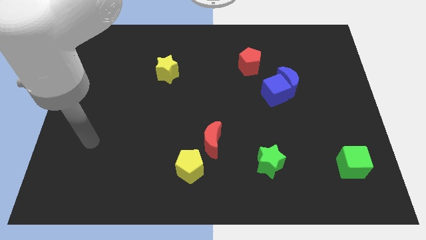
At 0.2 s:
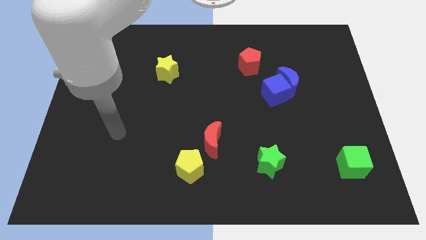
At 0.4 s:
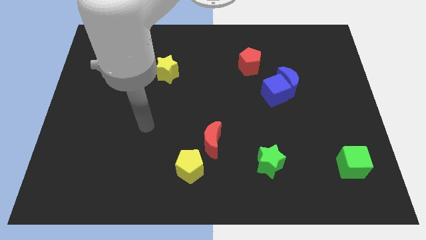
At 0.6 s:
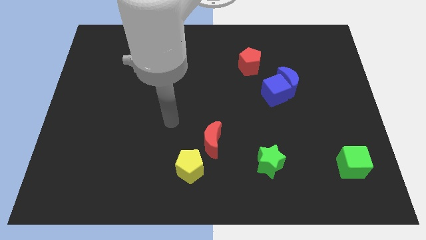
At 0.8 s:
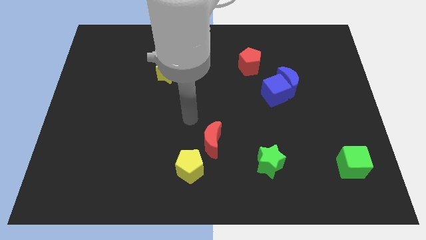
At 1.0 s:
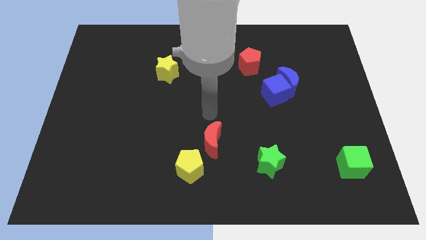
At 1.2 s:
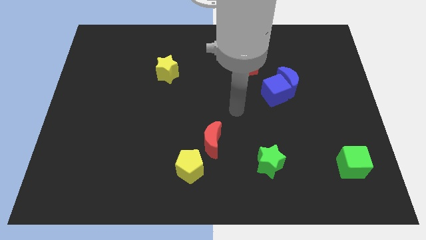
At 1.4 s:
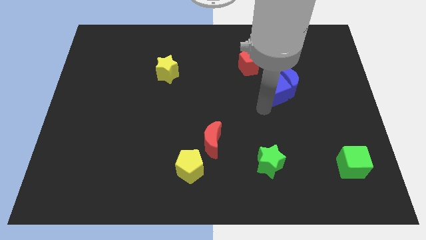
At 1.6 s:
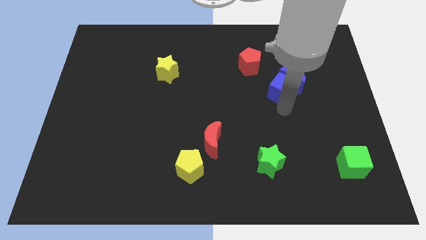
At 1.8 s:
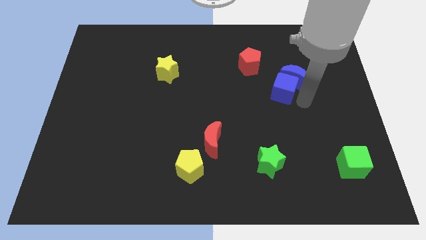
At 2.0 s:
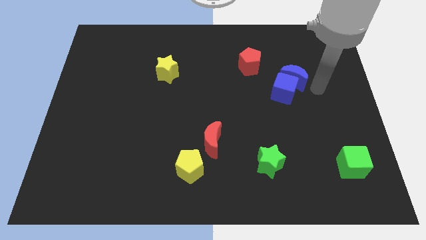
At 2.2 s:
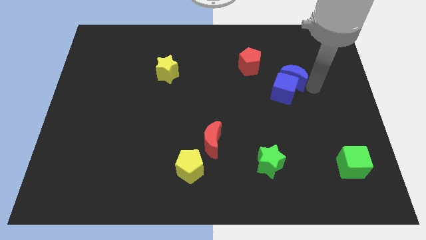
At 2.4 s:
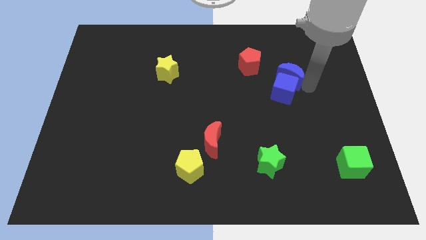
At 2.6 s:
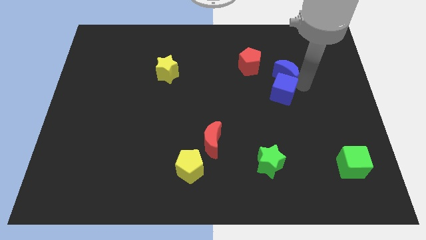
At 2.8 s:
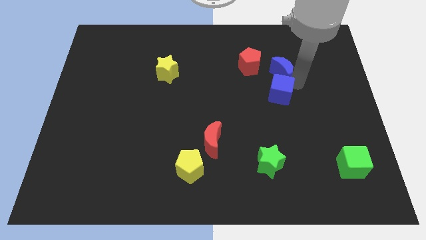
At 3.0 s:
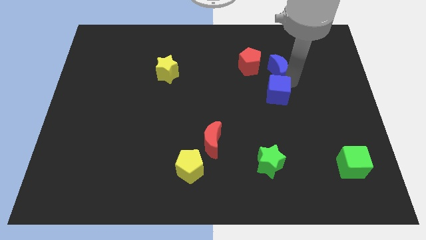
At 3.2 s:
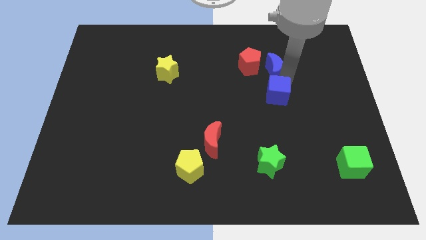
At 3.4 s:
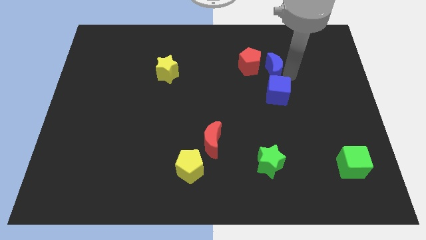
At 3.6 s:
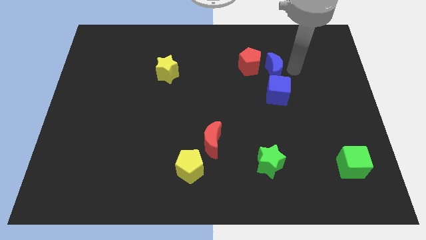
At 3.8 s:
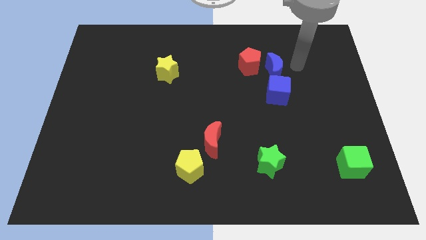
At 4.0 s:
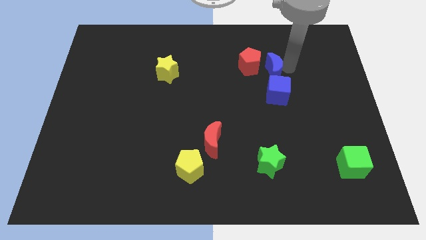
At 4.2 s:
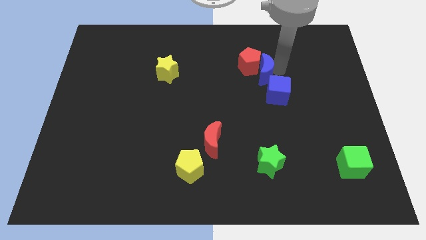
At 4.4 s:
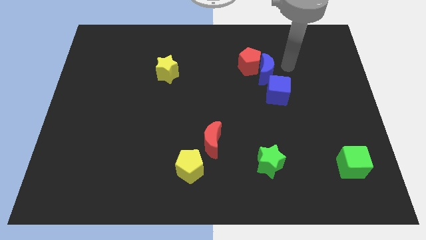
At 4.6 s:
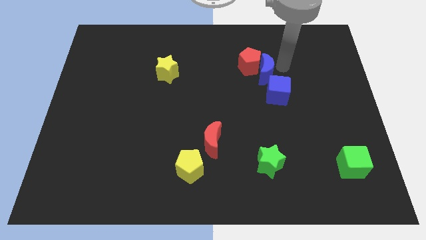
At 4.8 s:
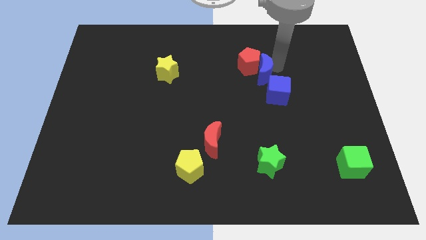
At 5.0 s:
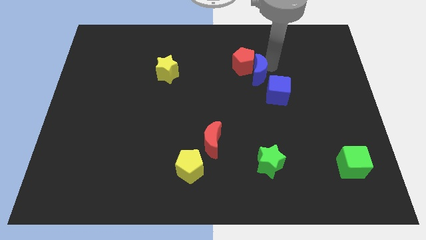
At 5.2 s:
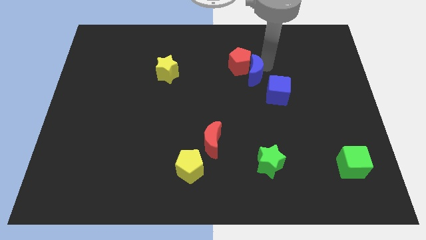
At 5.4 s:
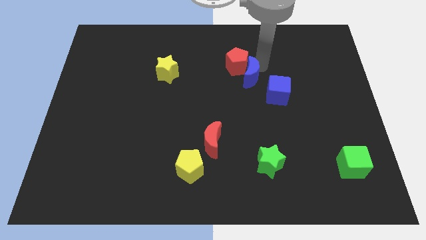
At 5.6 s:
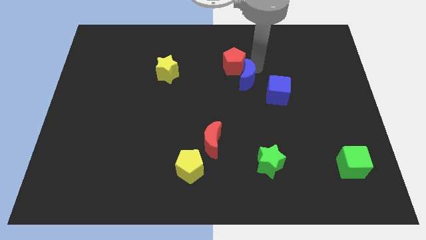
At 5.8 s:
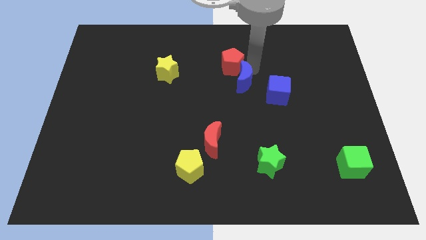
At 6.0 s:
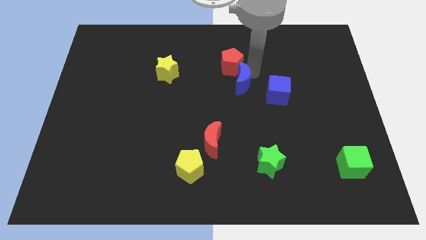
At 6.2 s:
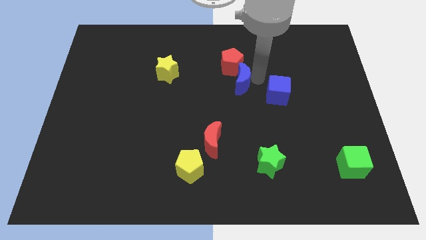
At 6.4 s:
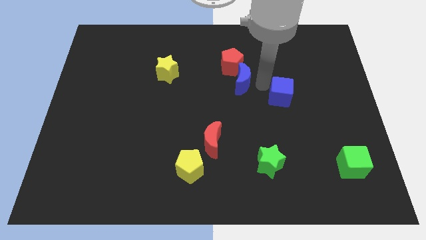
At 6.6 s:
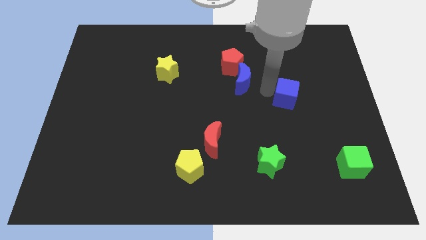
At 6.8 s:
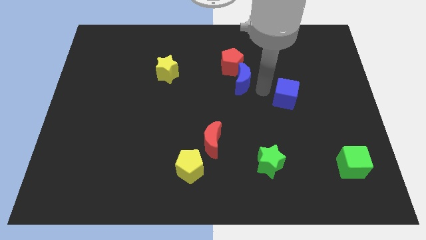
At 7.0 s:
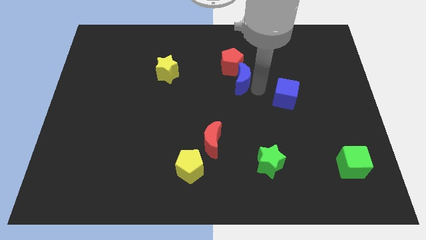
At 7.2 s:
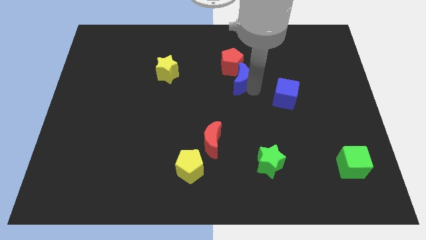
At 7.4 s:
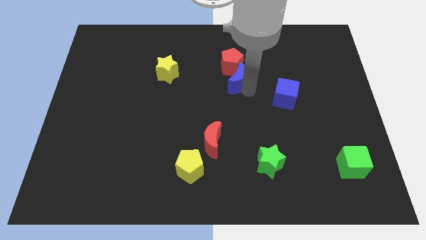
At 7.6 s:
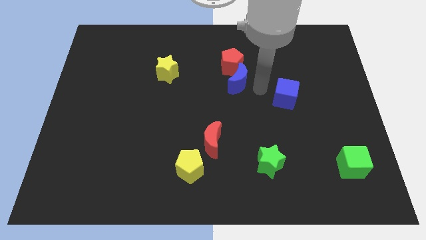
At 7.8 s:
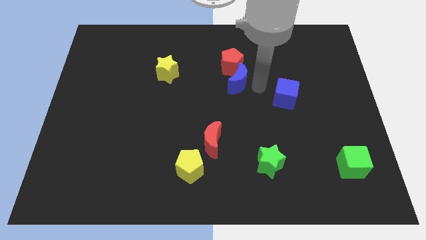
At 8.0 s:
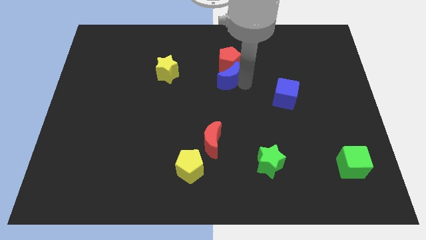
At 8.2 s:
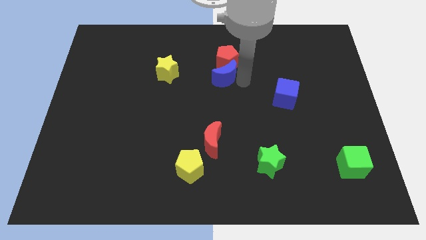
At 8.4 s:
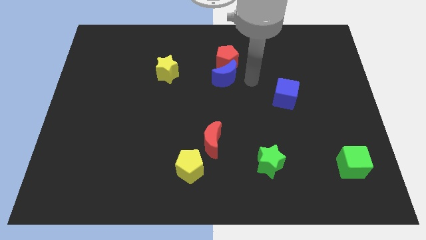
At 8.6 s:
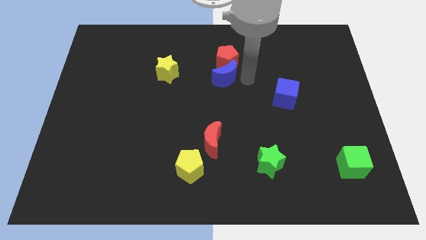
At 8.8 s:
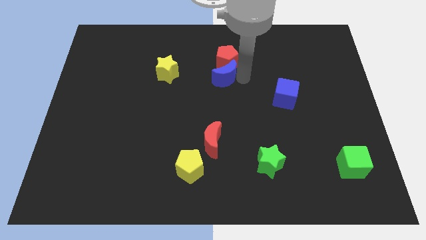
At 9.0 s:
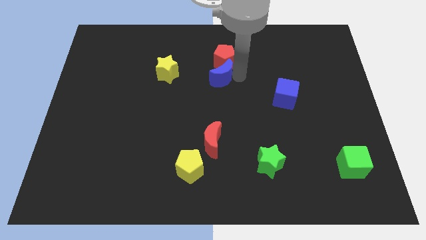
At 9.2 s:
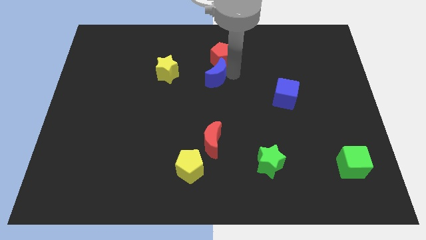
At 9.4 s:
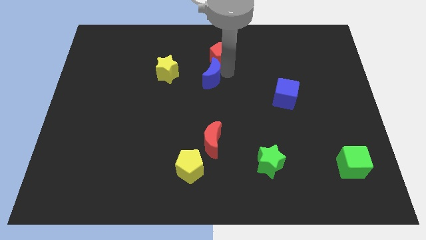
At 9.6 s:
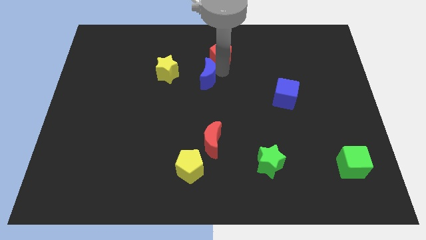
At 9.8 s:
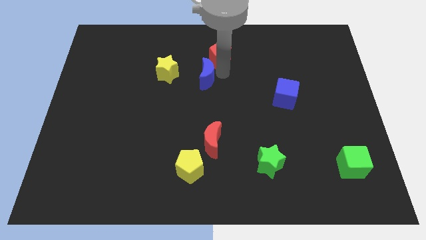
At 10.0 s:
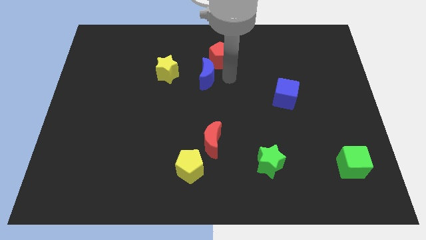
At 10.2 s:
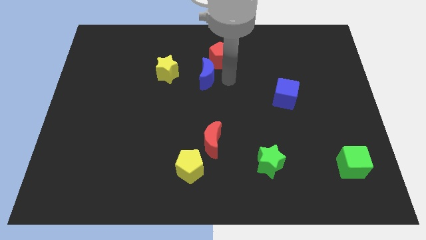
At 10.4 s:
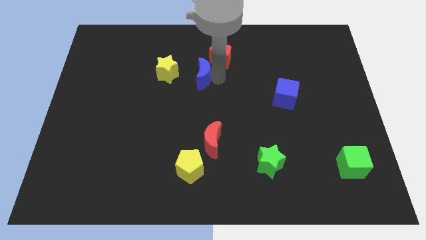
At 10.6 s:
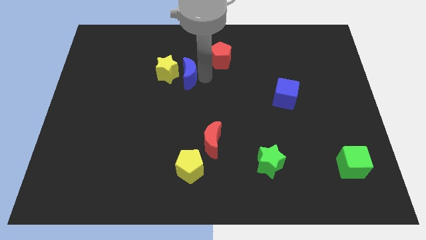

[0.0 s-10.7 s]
move the blue moon close to the yellow star
